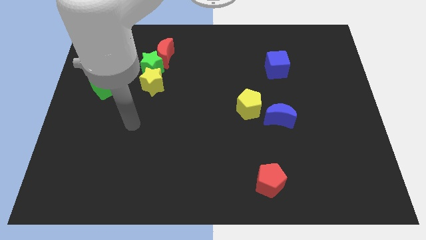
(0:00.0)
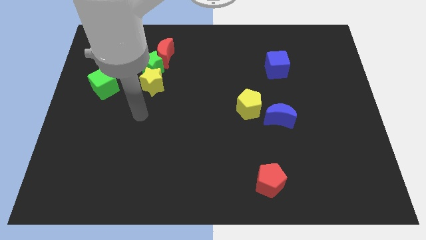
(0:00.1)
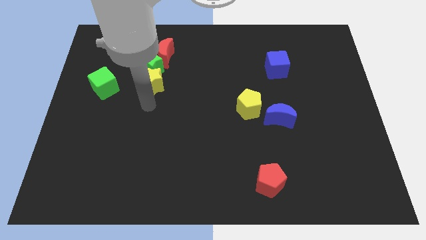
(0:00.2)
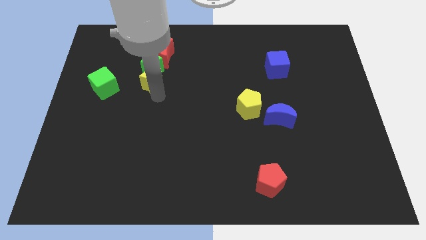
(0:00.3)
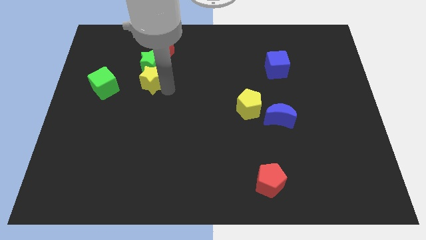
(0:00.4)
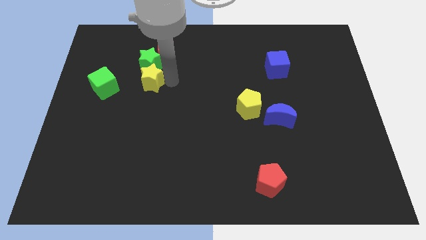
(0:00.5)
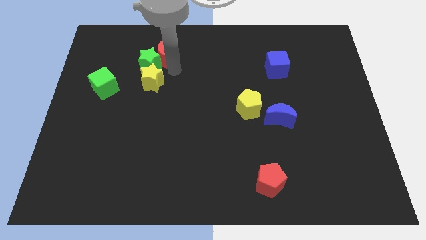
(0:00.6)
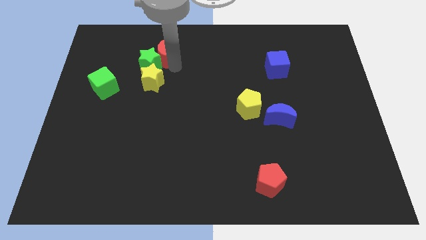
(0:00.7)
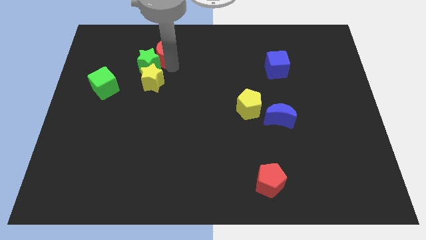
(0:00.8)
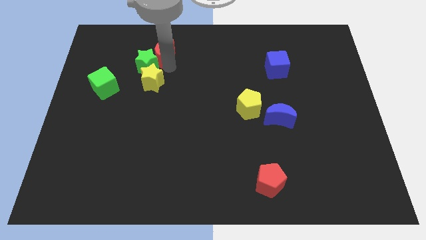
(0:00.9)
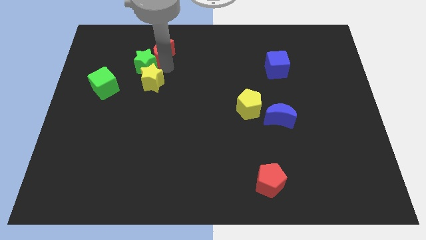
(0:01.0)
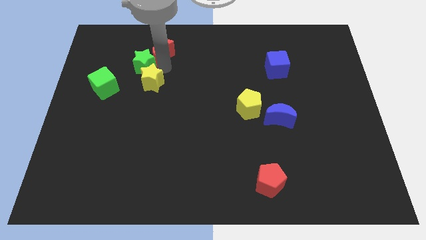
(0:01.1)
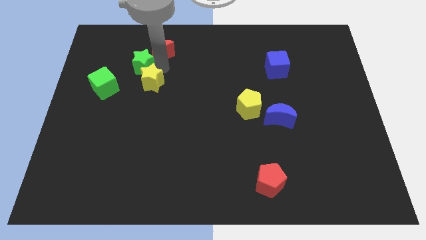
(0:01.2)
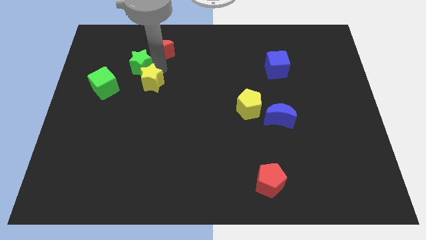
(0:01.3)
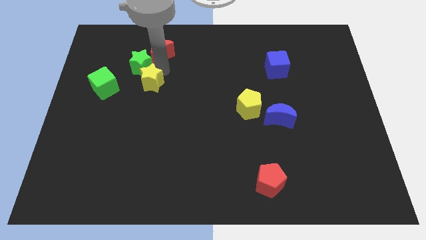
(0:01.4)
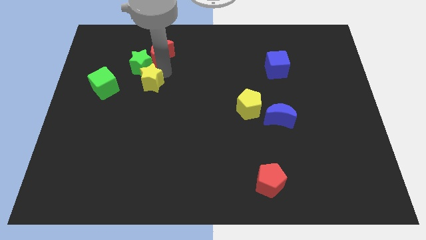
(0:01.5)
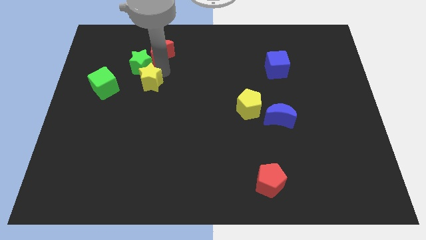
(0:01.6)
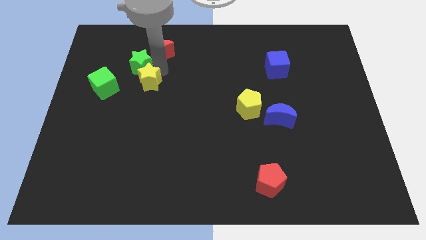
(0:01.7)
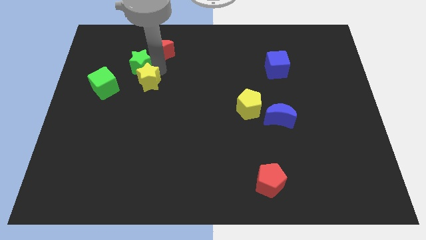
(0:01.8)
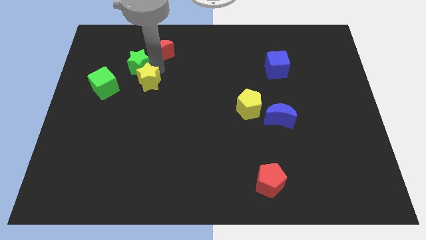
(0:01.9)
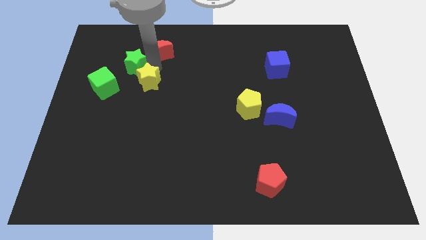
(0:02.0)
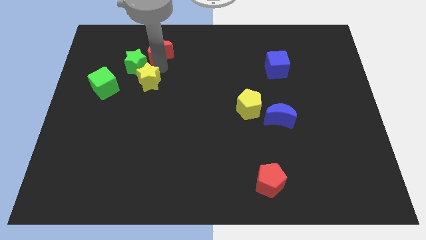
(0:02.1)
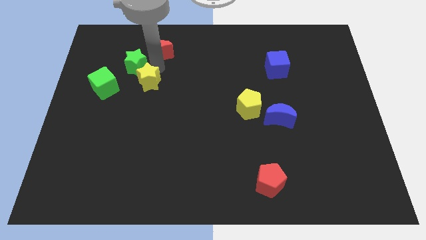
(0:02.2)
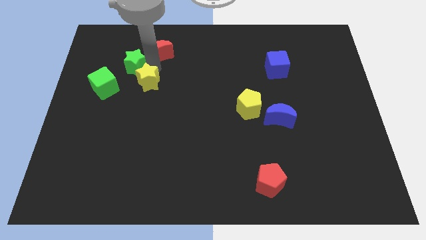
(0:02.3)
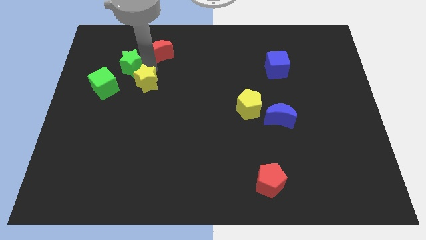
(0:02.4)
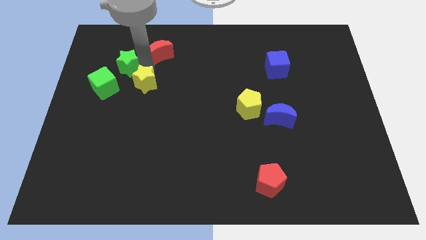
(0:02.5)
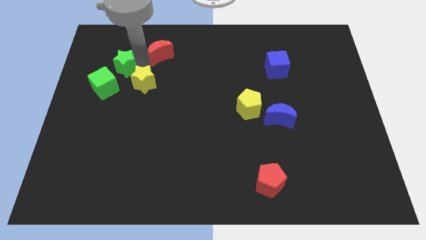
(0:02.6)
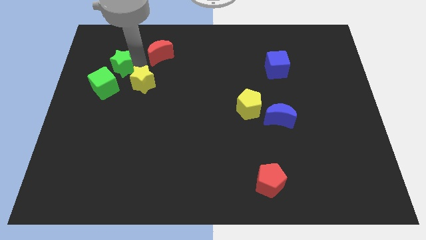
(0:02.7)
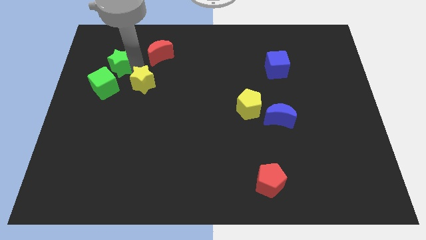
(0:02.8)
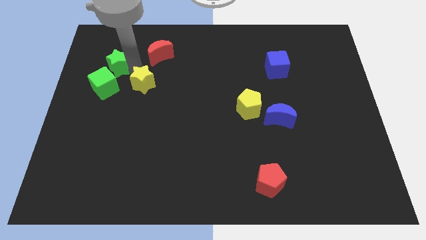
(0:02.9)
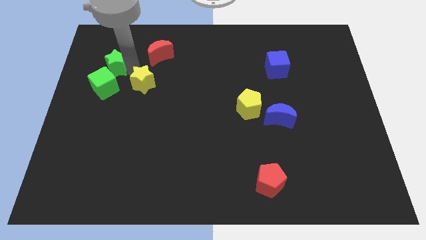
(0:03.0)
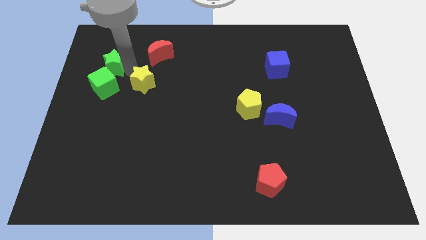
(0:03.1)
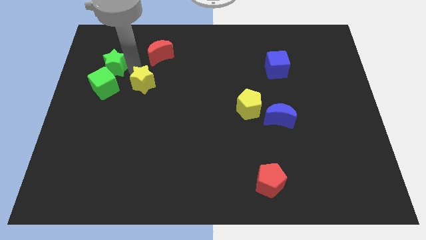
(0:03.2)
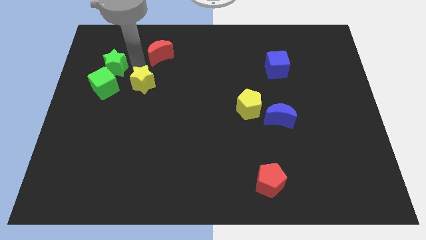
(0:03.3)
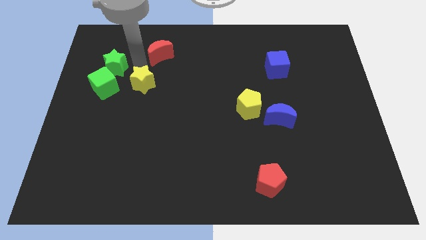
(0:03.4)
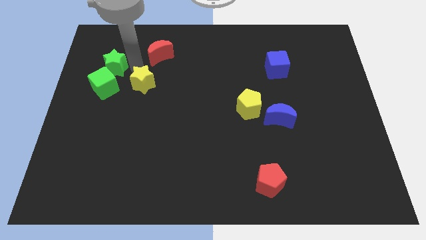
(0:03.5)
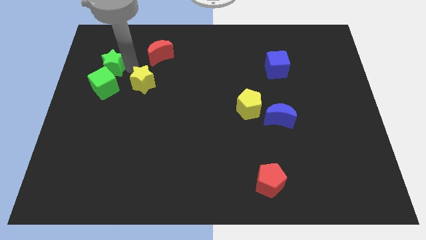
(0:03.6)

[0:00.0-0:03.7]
move the green star away from the red moon and yellow star

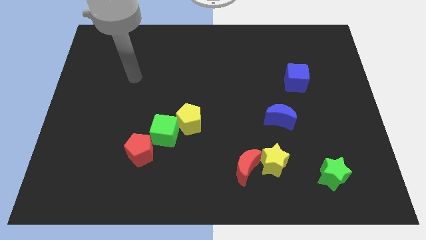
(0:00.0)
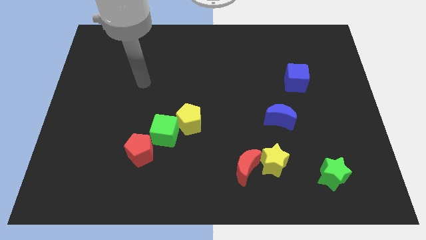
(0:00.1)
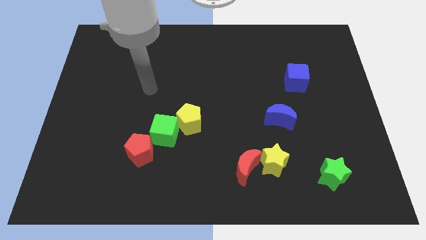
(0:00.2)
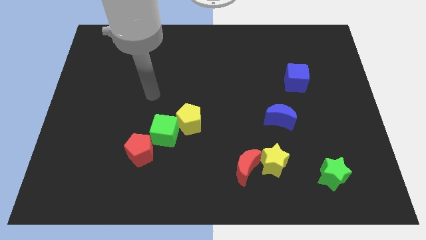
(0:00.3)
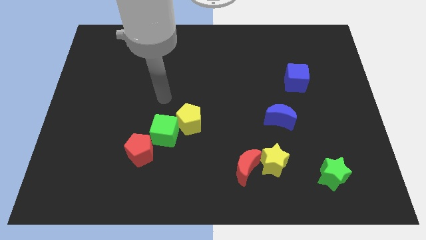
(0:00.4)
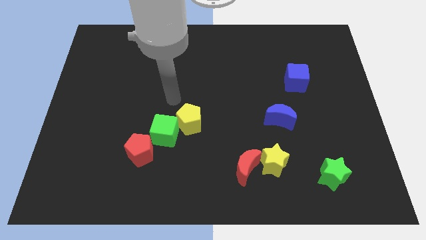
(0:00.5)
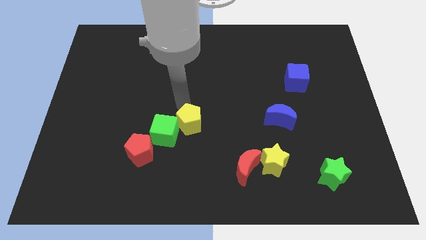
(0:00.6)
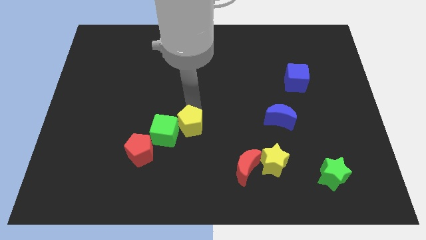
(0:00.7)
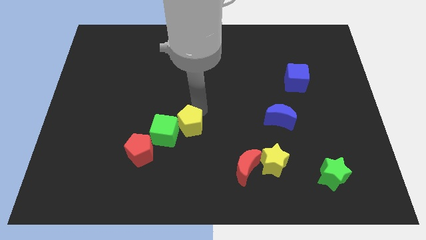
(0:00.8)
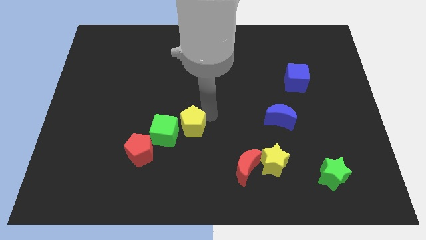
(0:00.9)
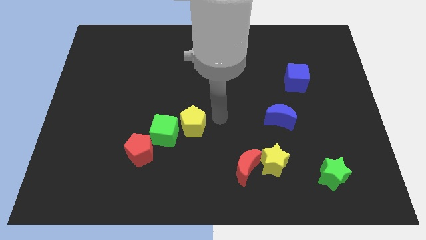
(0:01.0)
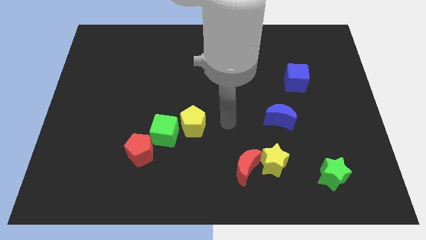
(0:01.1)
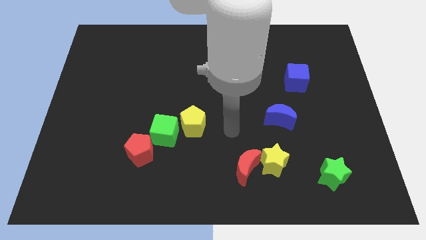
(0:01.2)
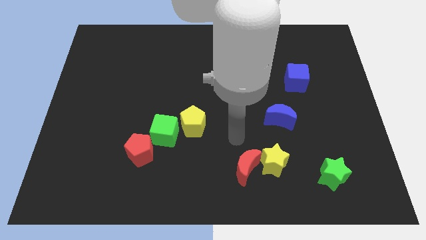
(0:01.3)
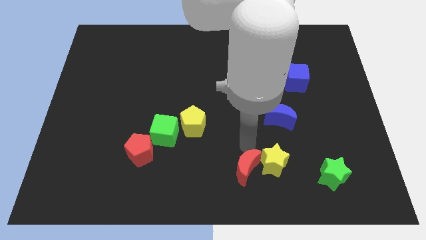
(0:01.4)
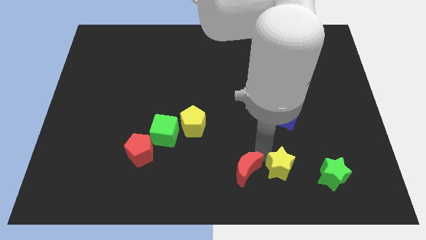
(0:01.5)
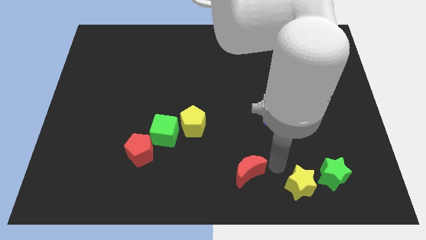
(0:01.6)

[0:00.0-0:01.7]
pull the red moon apart from the yellow star

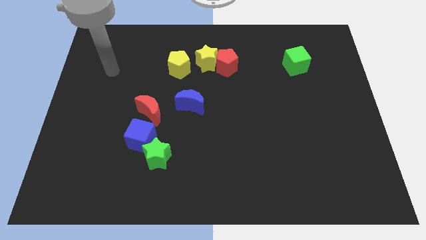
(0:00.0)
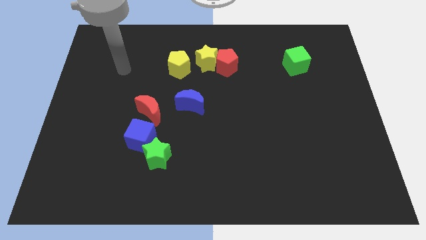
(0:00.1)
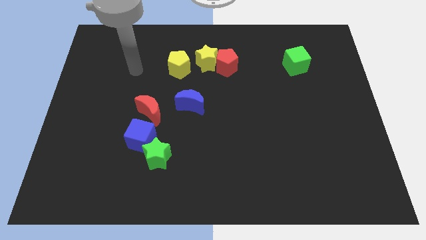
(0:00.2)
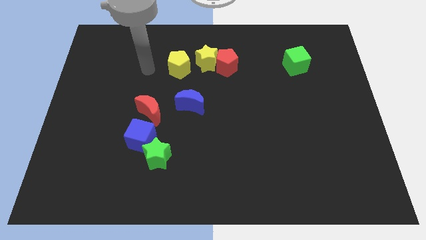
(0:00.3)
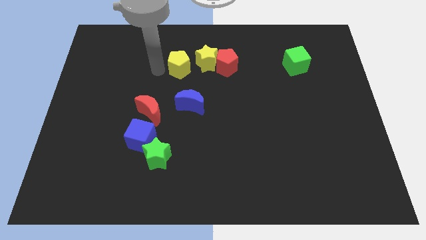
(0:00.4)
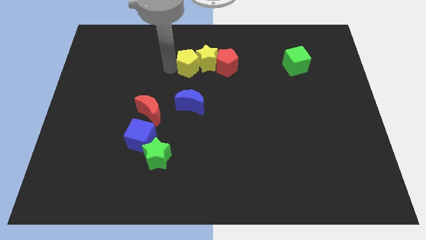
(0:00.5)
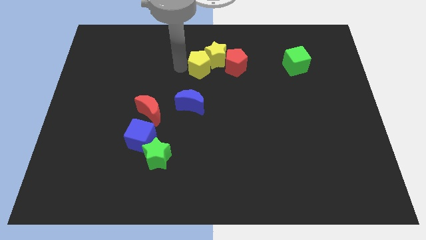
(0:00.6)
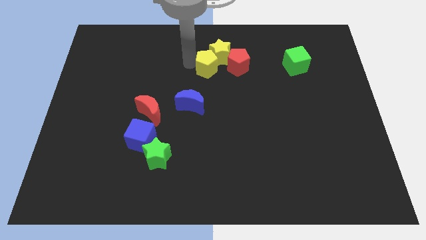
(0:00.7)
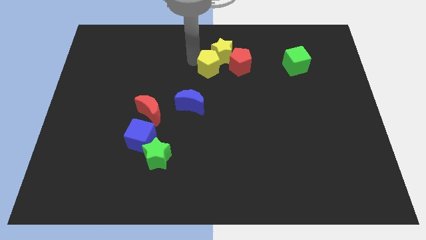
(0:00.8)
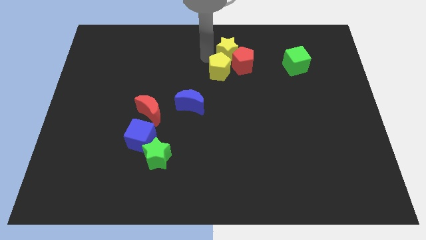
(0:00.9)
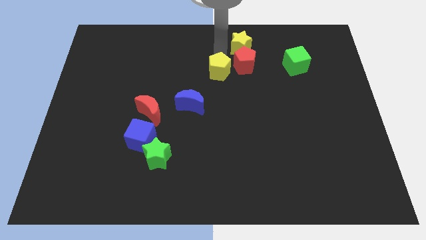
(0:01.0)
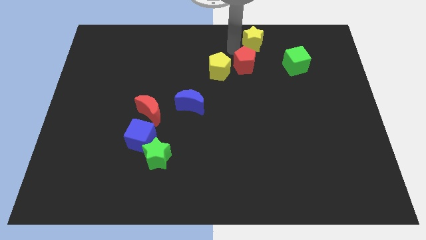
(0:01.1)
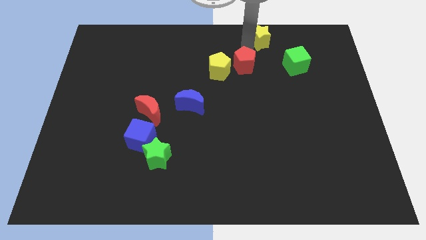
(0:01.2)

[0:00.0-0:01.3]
move the red pentagon away from the yellow star

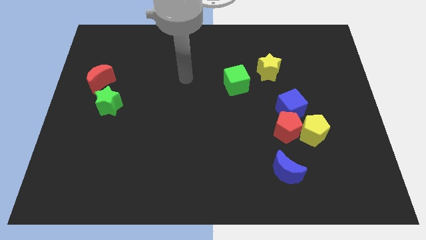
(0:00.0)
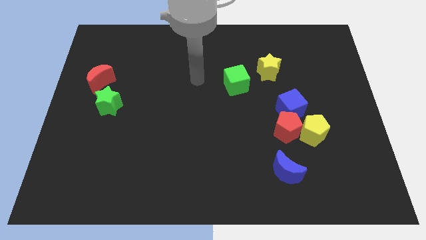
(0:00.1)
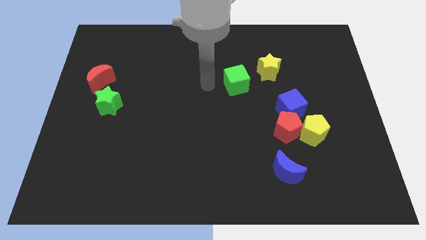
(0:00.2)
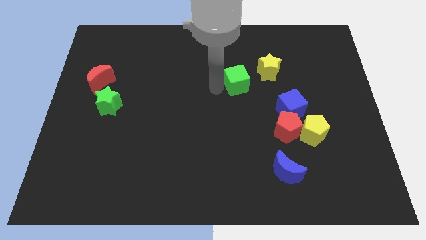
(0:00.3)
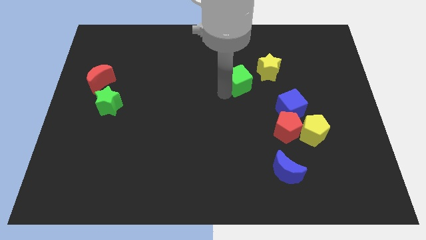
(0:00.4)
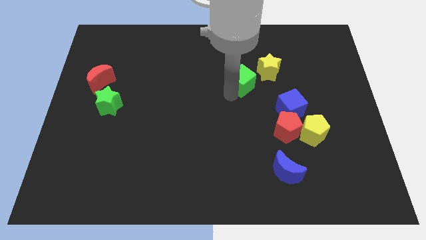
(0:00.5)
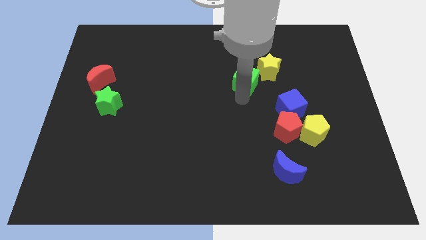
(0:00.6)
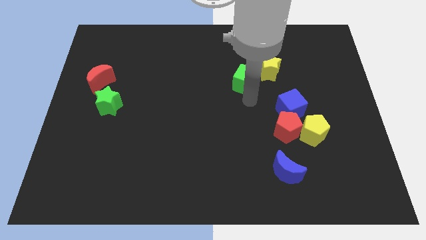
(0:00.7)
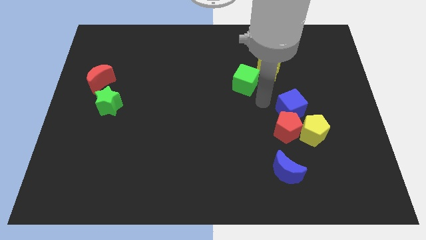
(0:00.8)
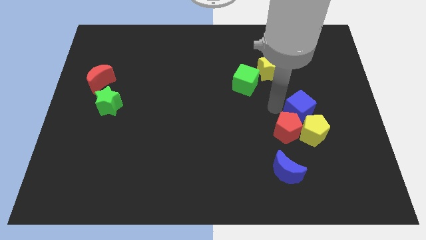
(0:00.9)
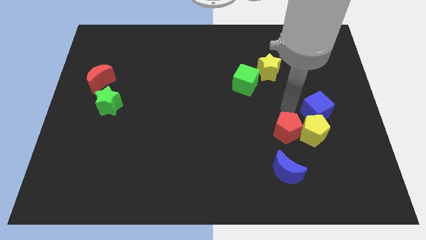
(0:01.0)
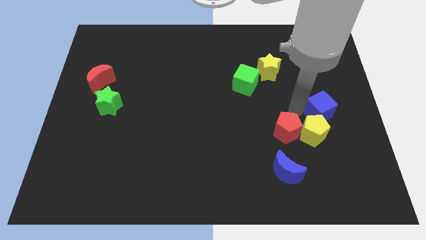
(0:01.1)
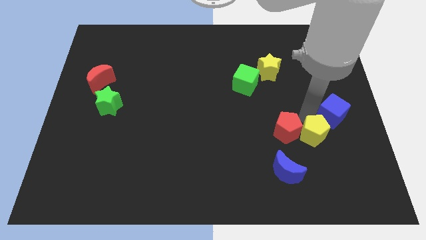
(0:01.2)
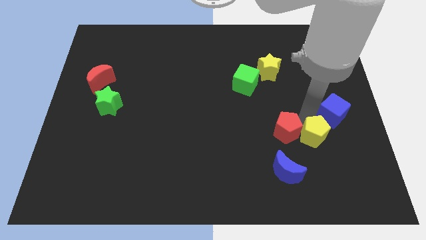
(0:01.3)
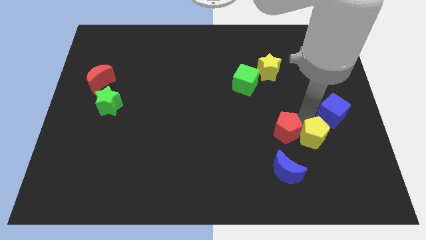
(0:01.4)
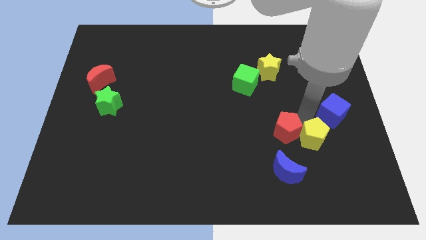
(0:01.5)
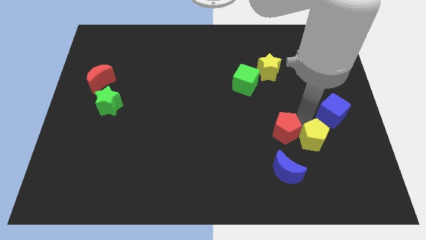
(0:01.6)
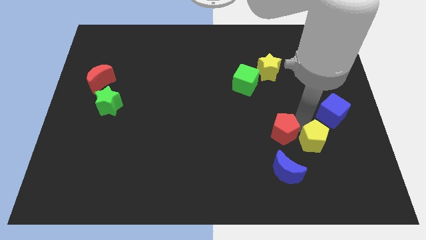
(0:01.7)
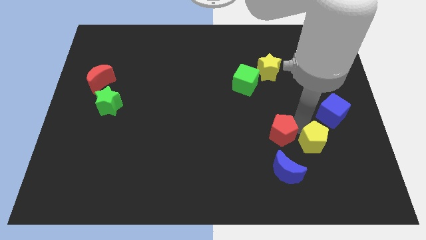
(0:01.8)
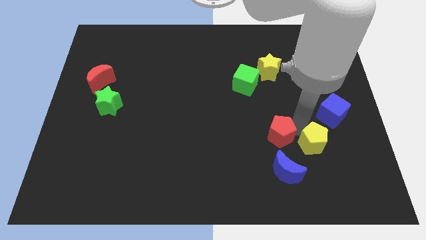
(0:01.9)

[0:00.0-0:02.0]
move the red pentagon away from the yellow pentagon and blue cube

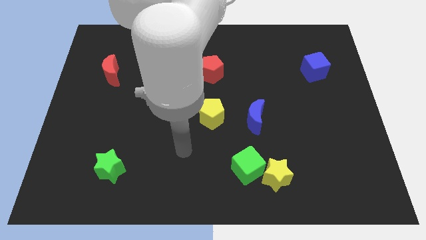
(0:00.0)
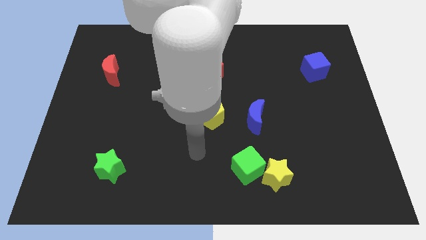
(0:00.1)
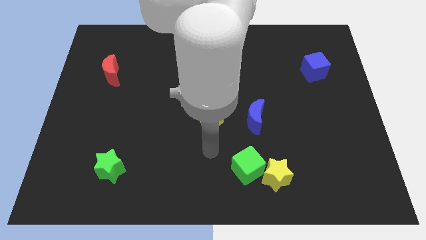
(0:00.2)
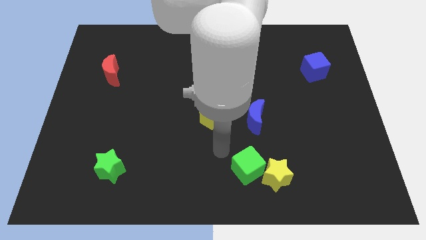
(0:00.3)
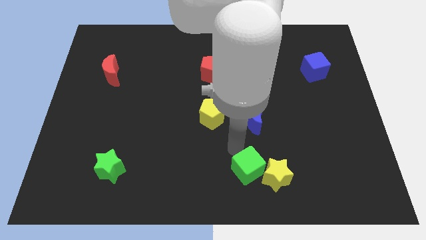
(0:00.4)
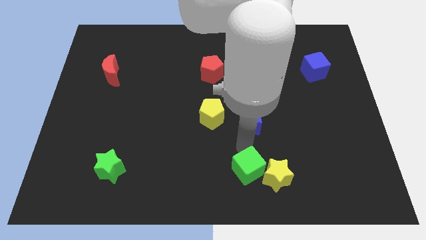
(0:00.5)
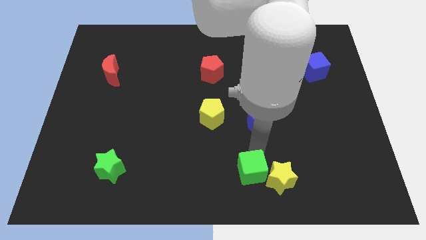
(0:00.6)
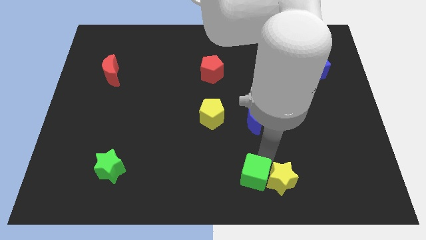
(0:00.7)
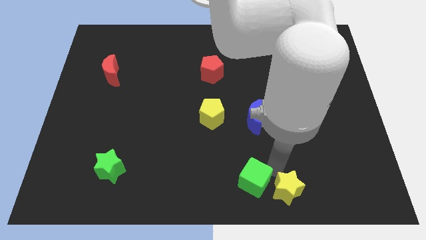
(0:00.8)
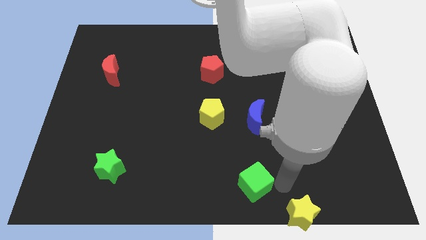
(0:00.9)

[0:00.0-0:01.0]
pull the green cube apart from the yellow star
